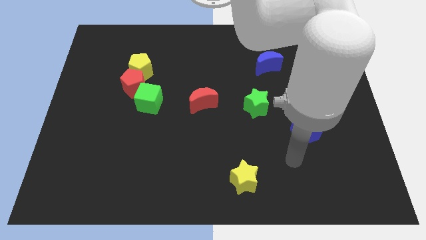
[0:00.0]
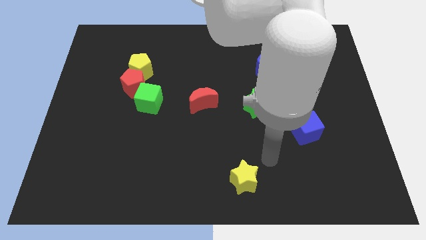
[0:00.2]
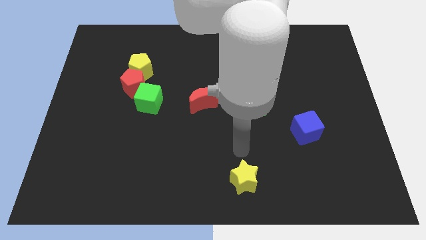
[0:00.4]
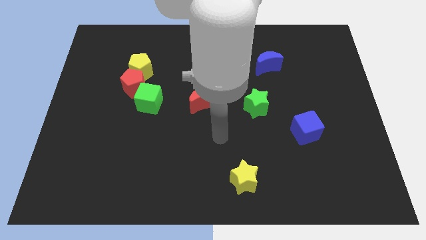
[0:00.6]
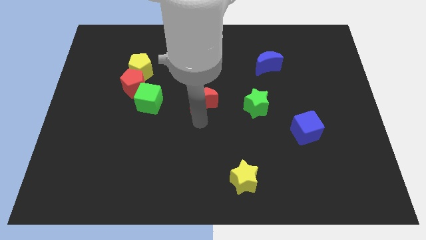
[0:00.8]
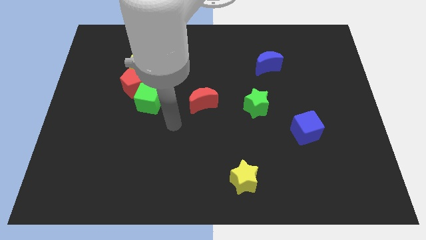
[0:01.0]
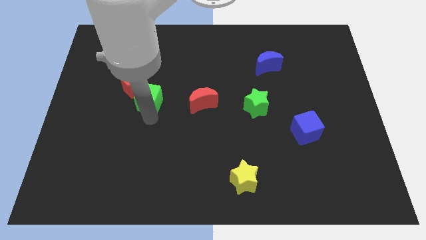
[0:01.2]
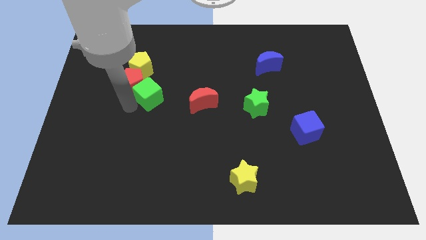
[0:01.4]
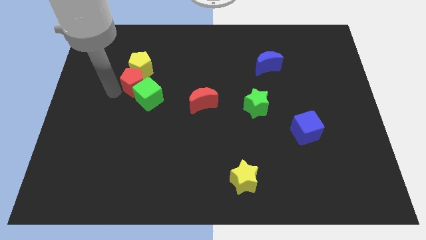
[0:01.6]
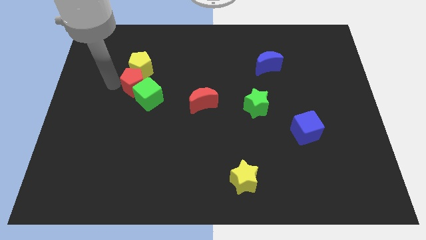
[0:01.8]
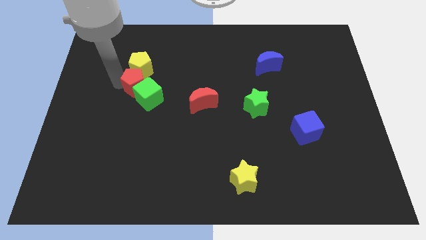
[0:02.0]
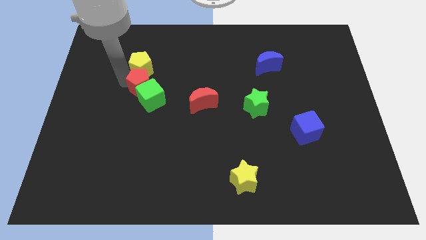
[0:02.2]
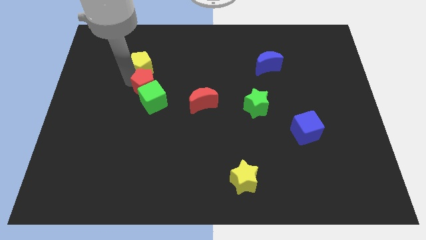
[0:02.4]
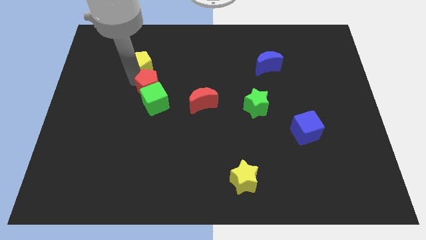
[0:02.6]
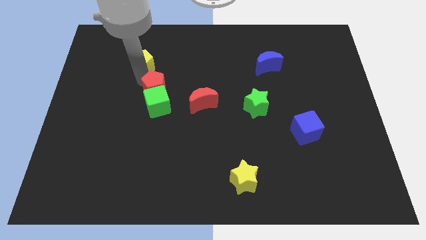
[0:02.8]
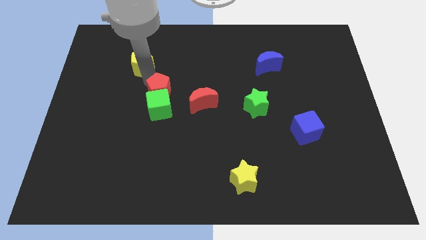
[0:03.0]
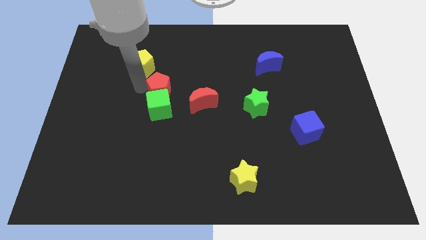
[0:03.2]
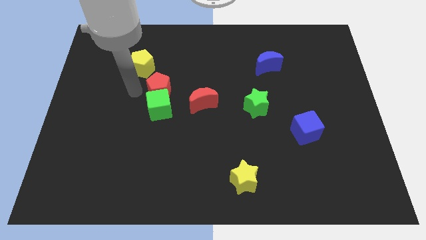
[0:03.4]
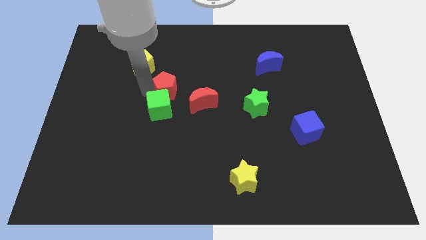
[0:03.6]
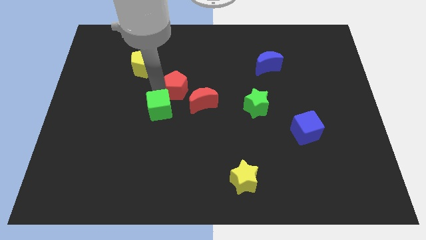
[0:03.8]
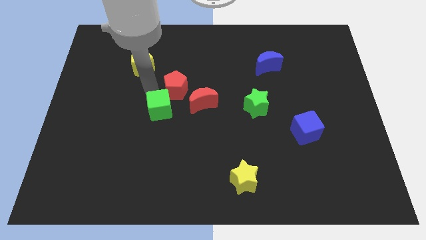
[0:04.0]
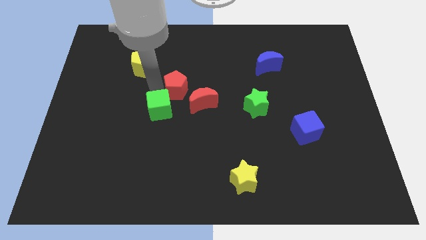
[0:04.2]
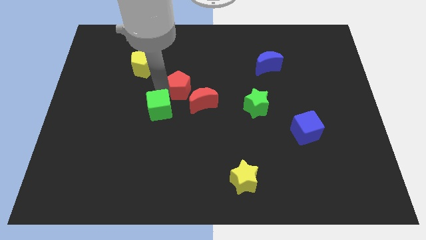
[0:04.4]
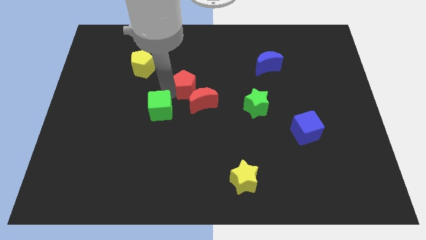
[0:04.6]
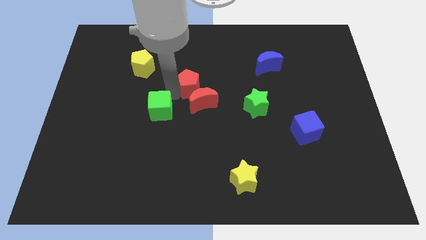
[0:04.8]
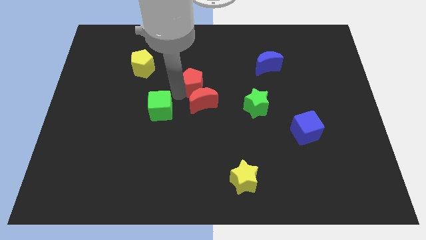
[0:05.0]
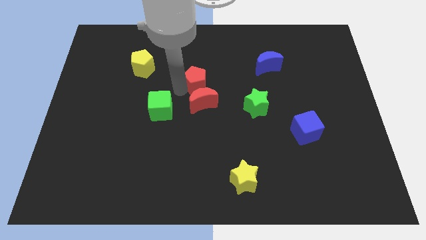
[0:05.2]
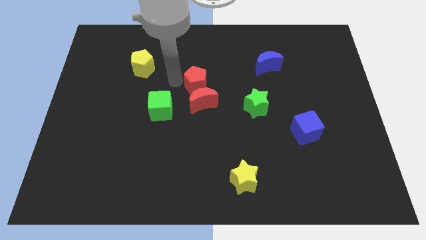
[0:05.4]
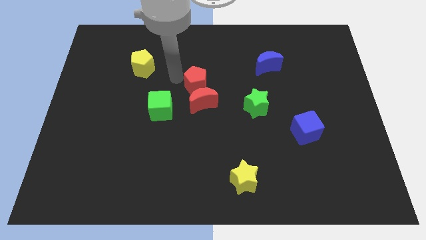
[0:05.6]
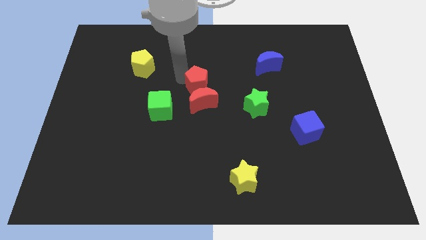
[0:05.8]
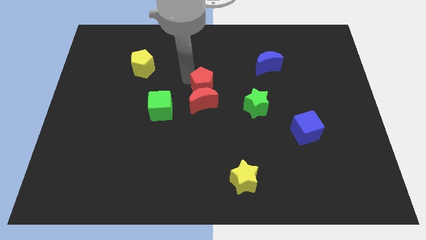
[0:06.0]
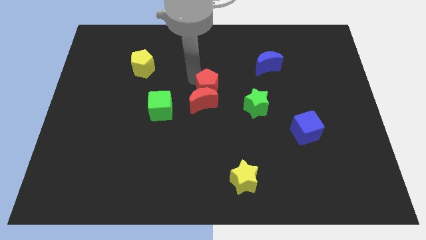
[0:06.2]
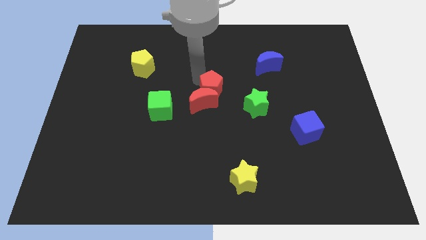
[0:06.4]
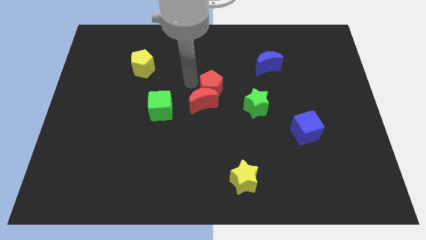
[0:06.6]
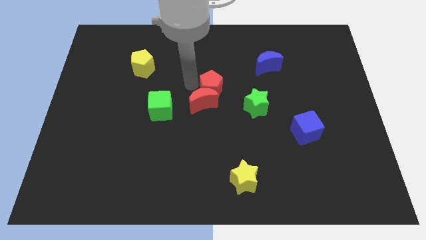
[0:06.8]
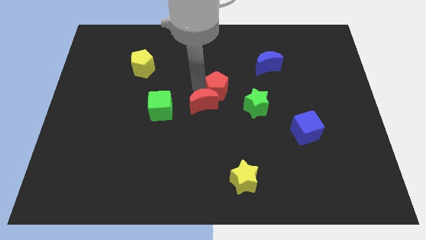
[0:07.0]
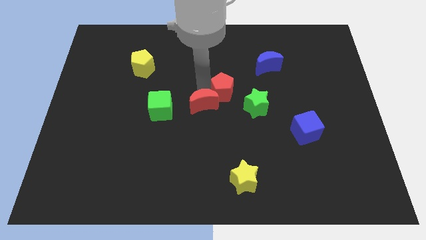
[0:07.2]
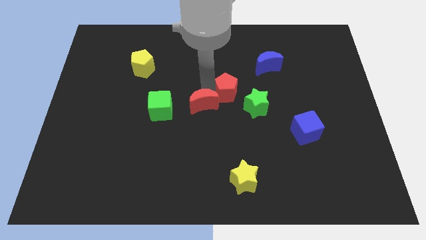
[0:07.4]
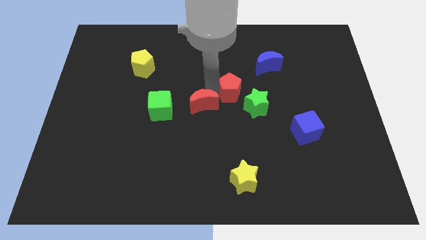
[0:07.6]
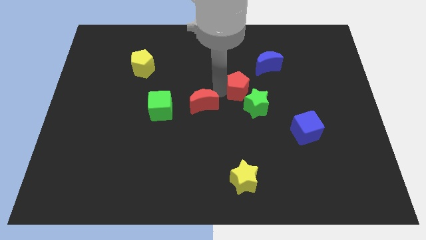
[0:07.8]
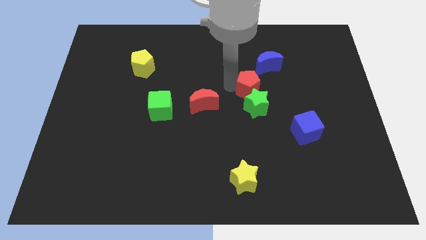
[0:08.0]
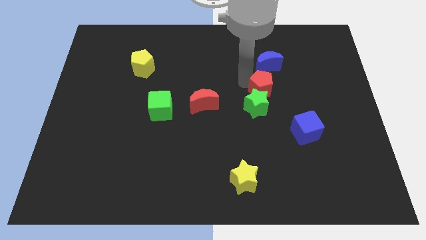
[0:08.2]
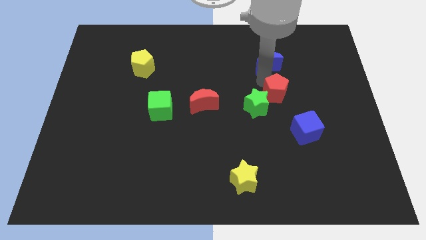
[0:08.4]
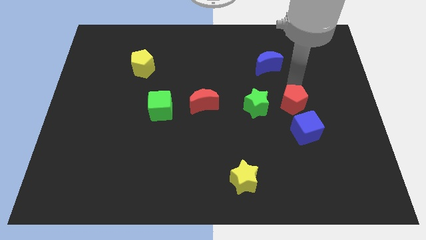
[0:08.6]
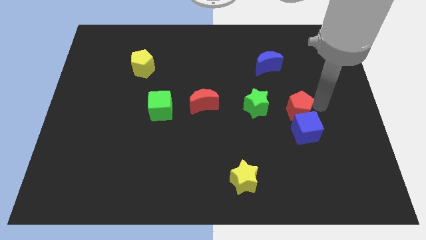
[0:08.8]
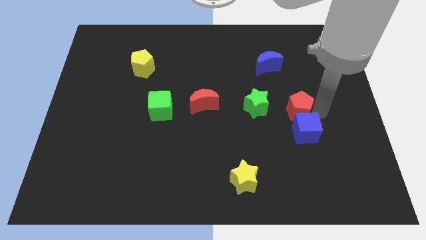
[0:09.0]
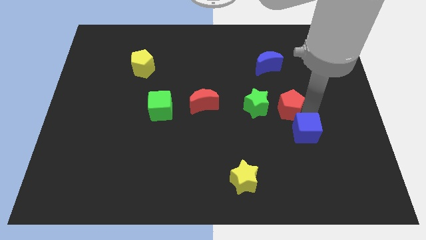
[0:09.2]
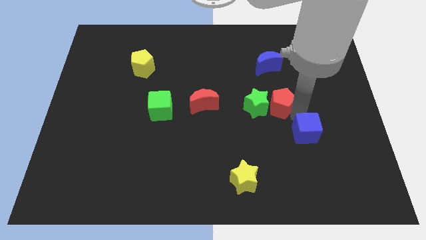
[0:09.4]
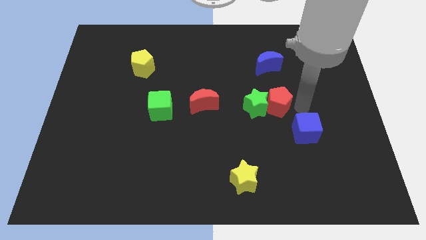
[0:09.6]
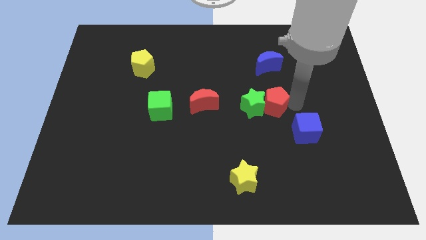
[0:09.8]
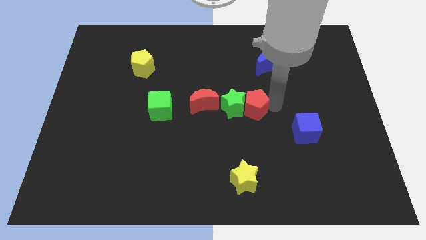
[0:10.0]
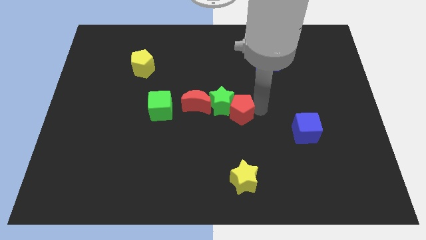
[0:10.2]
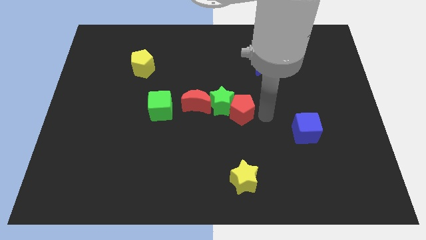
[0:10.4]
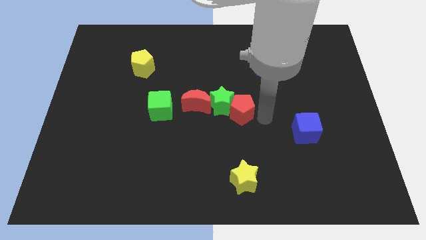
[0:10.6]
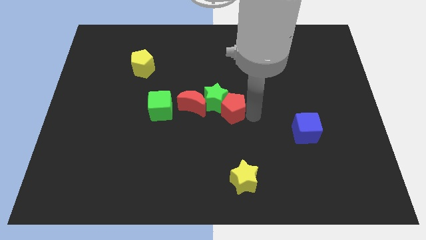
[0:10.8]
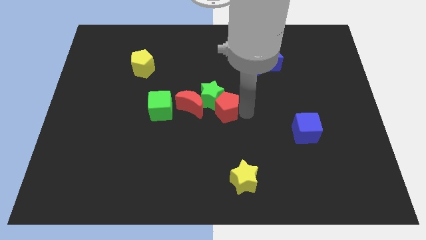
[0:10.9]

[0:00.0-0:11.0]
put the red pentagon to the bottom right side of the red moon

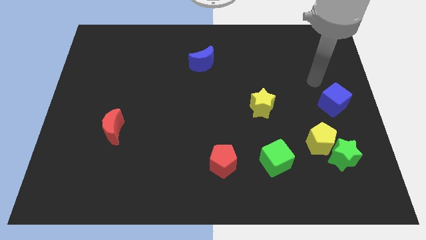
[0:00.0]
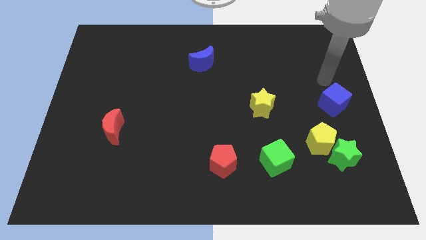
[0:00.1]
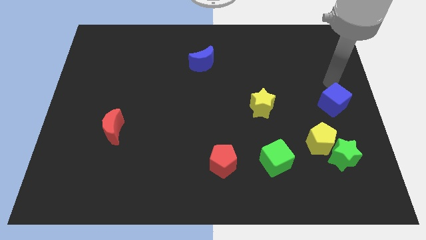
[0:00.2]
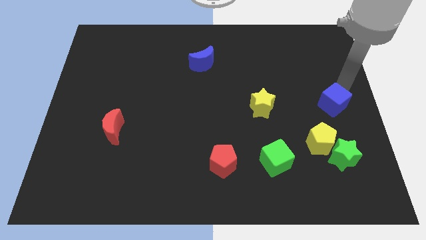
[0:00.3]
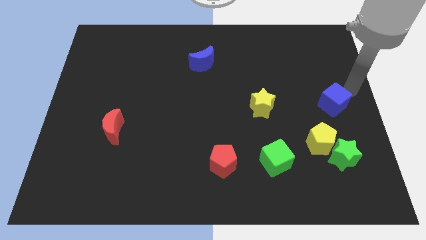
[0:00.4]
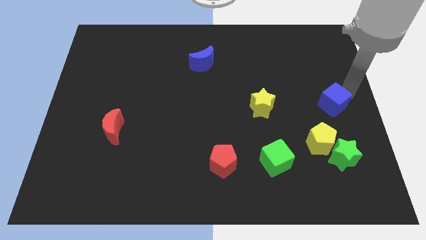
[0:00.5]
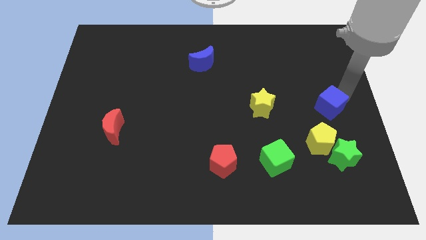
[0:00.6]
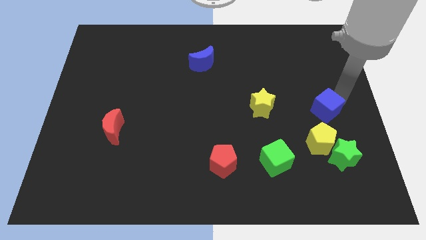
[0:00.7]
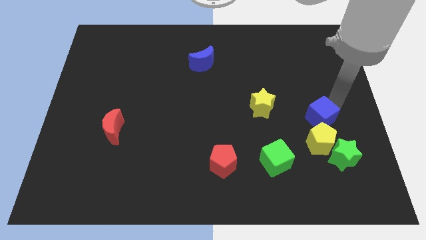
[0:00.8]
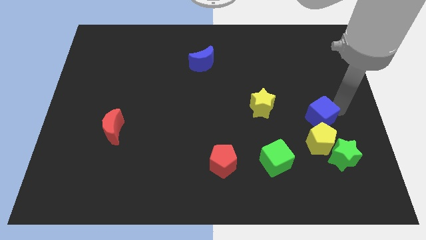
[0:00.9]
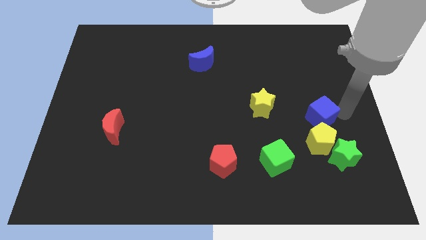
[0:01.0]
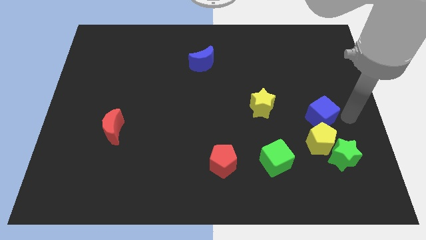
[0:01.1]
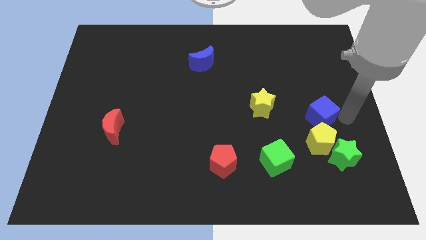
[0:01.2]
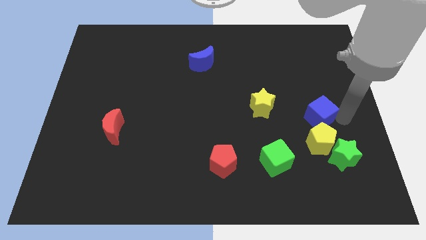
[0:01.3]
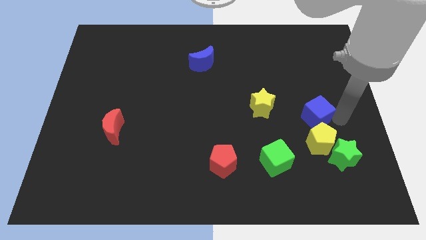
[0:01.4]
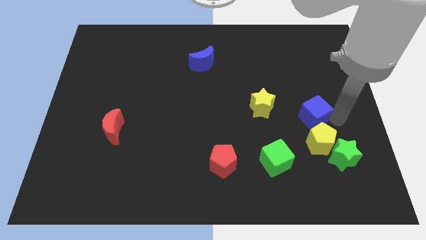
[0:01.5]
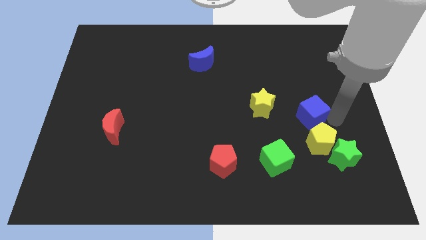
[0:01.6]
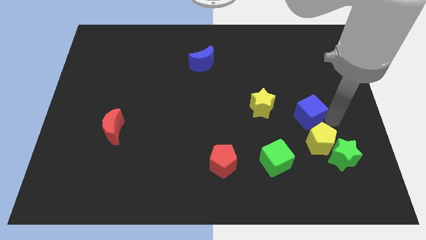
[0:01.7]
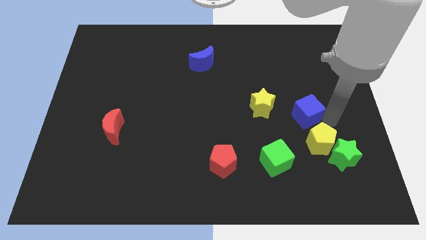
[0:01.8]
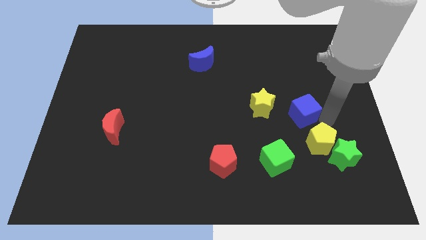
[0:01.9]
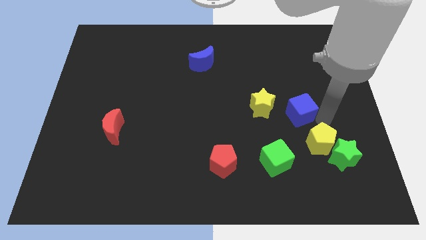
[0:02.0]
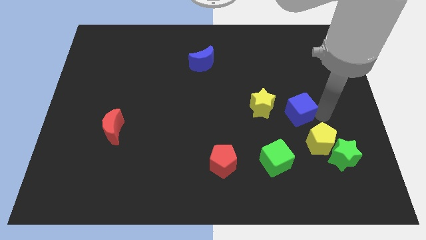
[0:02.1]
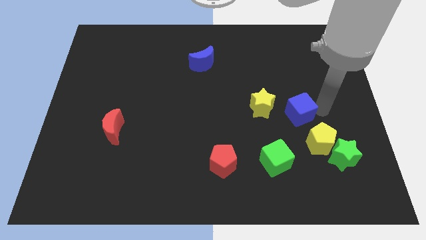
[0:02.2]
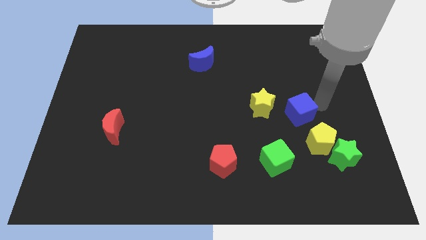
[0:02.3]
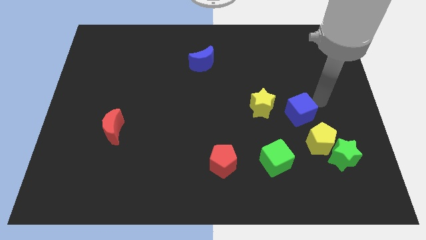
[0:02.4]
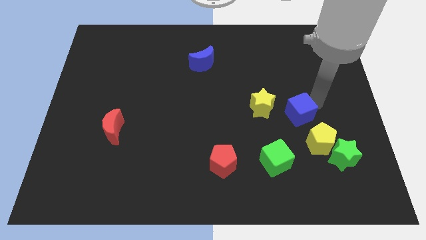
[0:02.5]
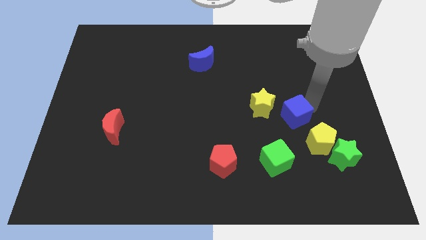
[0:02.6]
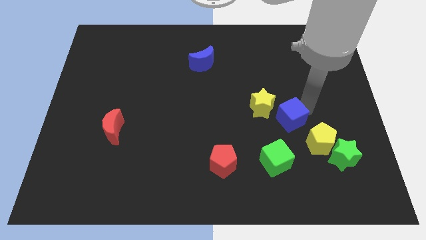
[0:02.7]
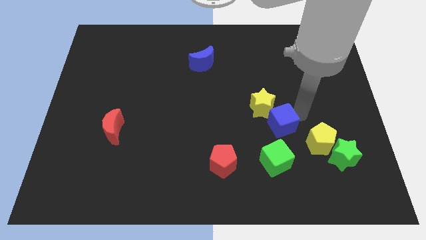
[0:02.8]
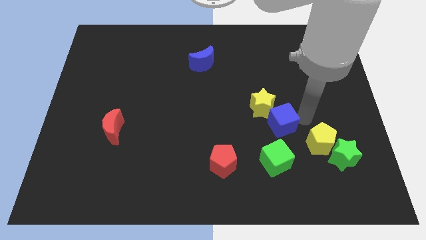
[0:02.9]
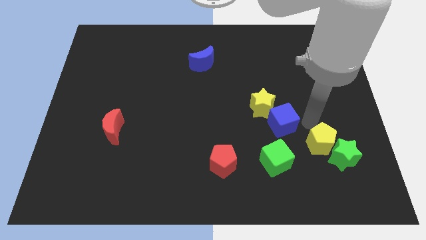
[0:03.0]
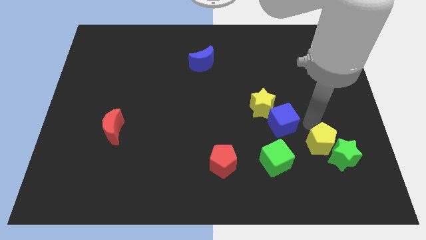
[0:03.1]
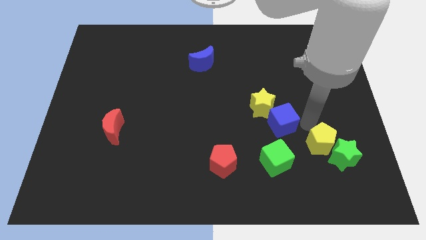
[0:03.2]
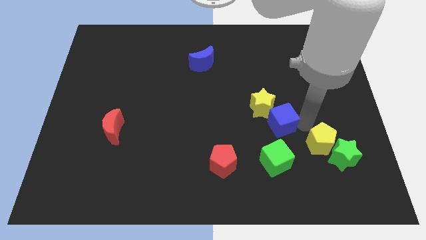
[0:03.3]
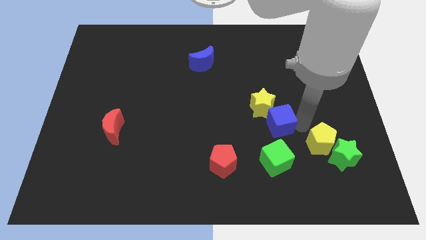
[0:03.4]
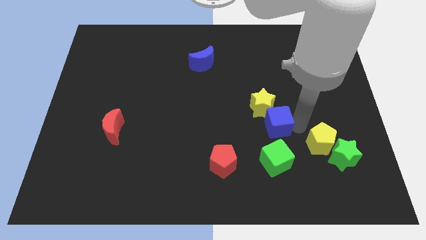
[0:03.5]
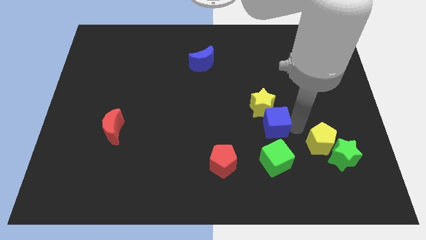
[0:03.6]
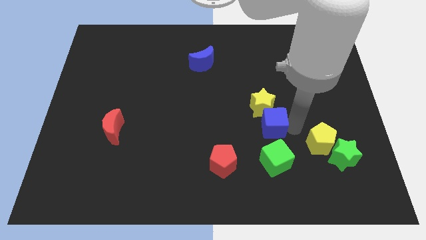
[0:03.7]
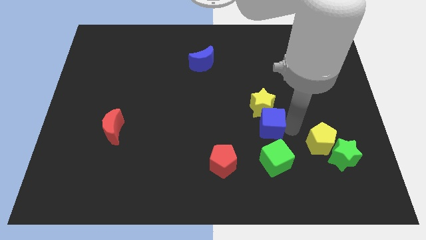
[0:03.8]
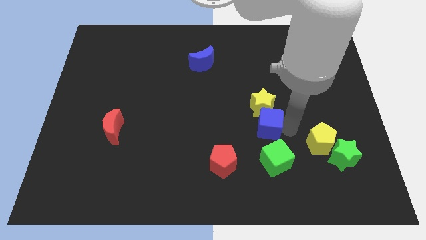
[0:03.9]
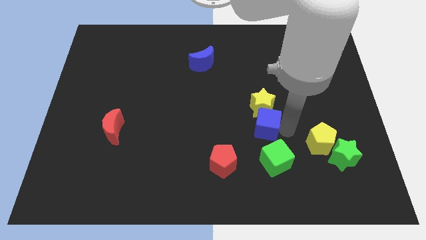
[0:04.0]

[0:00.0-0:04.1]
move the blue cube to the bottom left side of the yellow star
